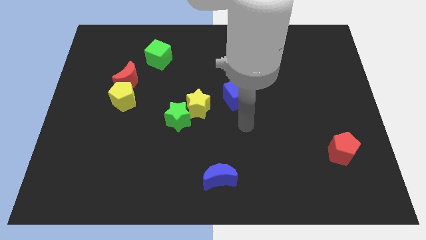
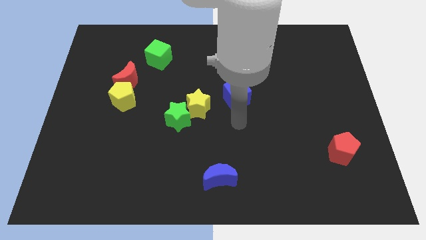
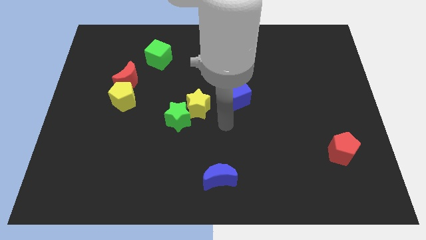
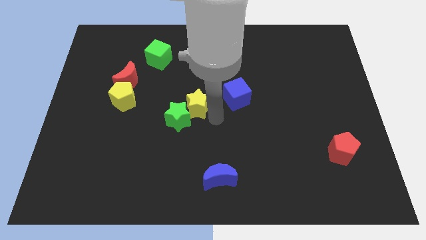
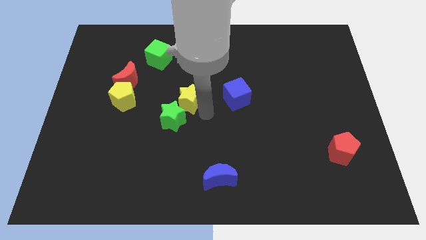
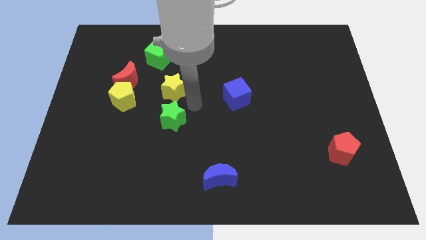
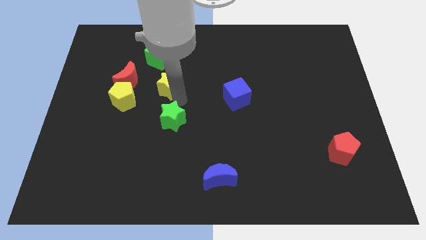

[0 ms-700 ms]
pull the green star apart from the yellow star

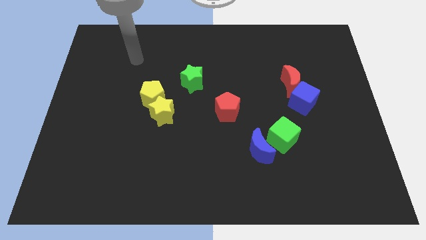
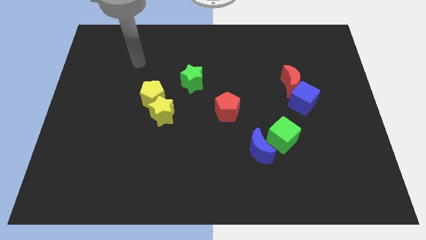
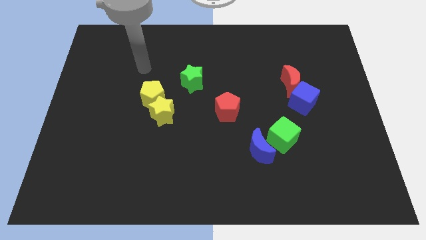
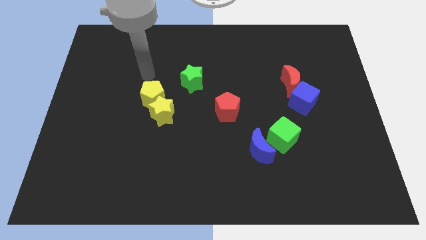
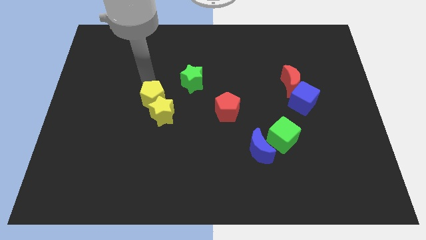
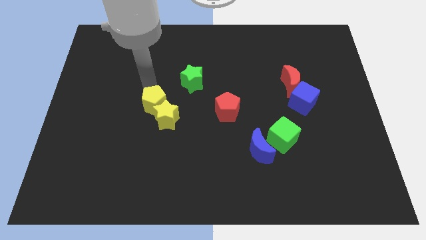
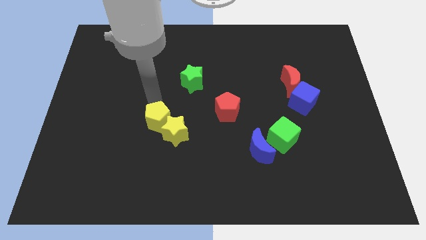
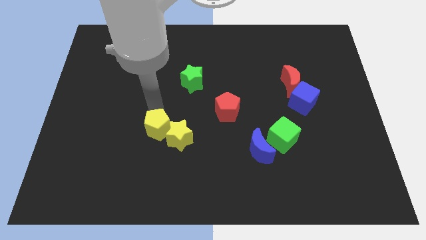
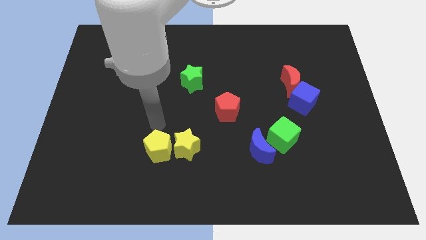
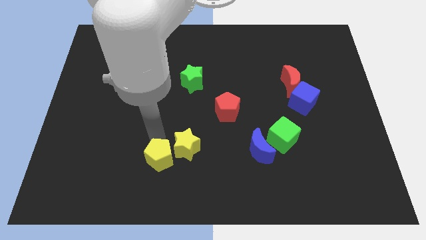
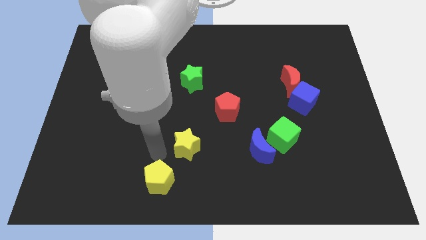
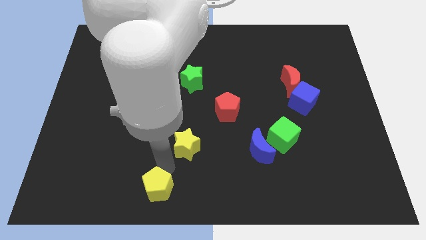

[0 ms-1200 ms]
pull the yellow star apart from the yellow pentagon

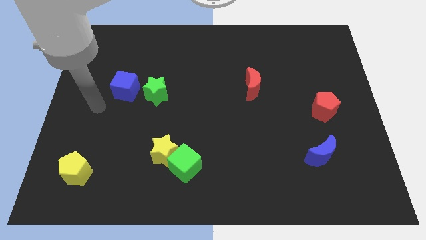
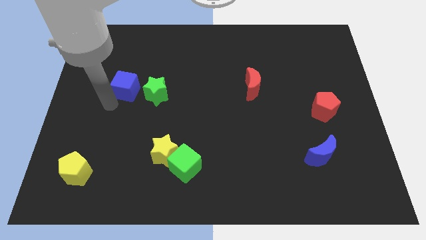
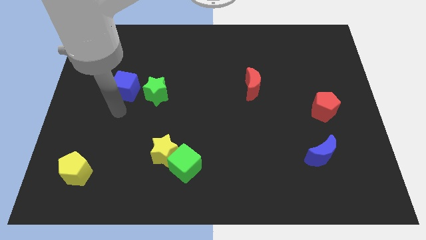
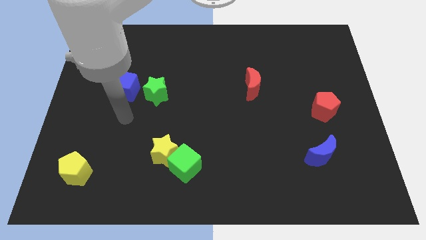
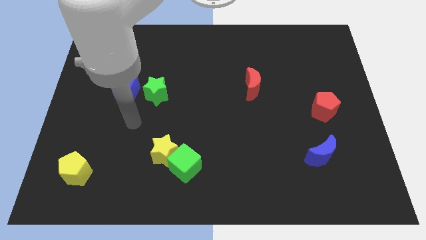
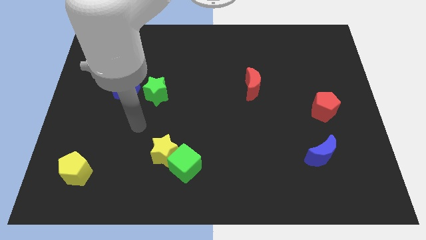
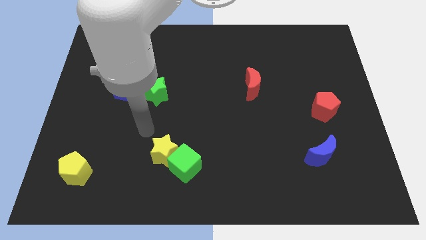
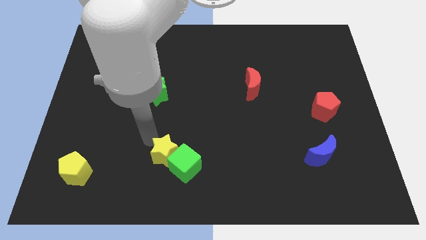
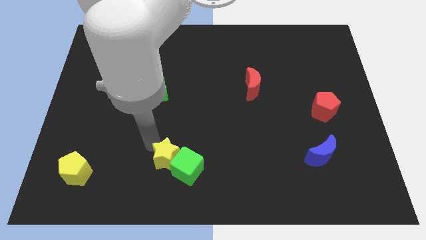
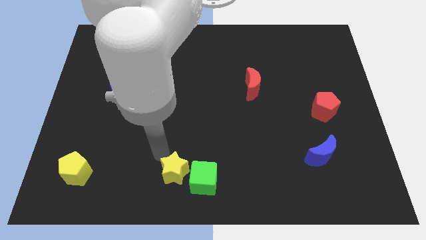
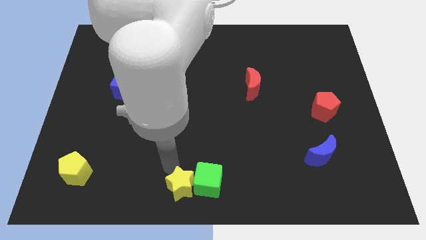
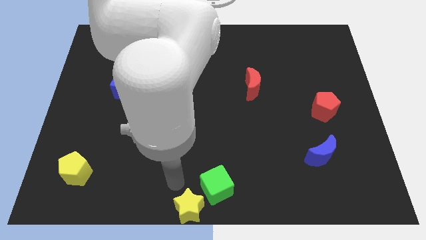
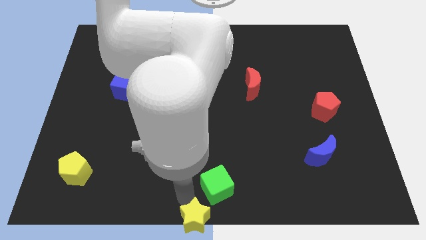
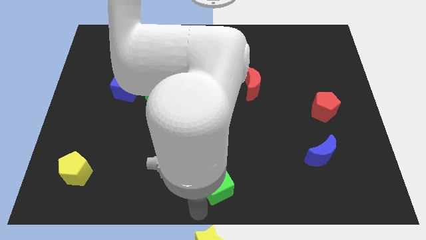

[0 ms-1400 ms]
pull the green cube apart from the yellow star

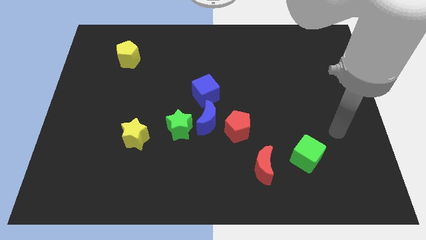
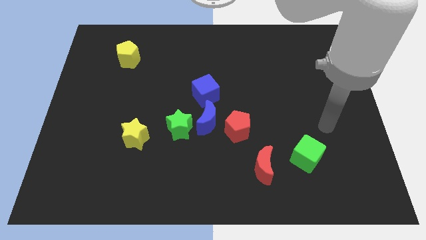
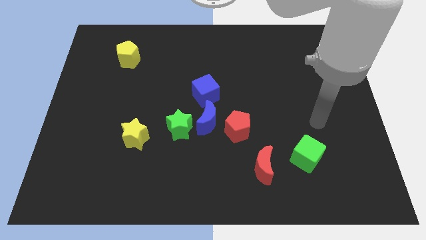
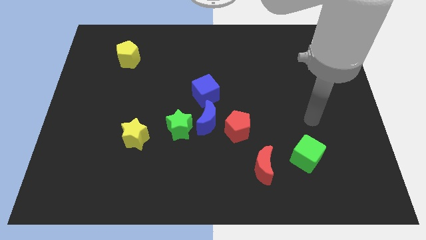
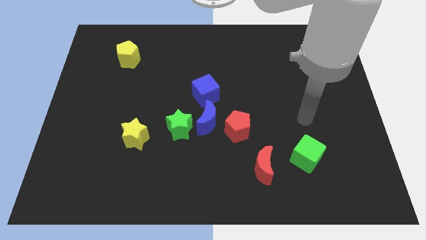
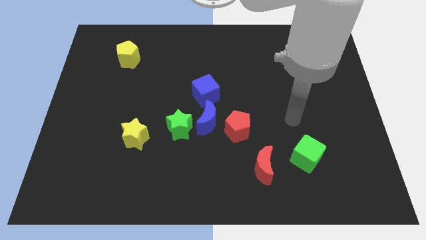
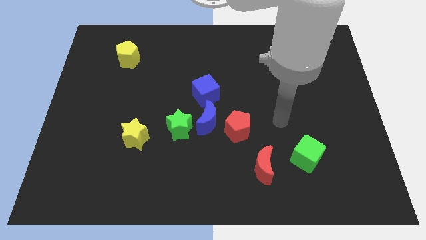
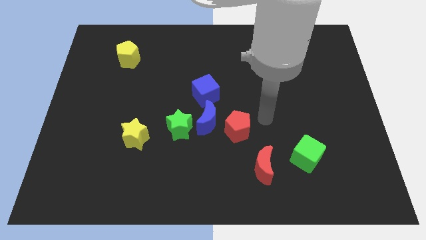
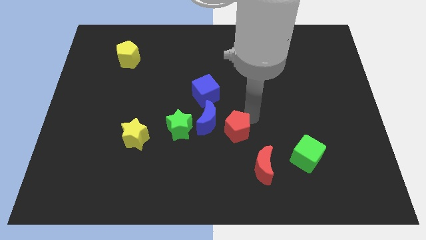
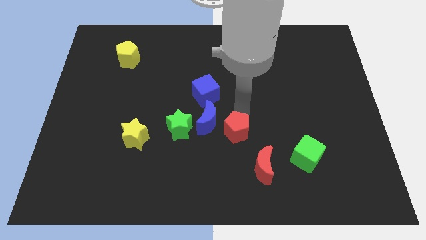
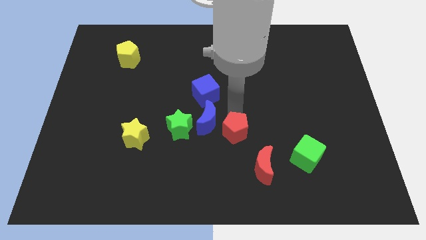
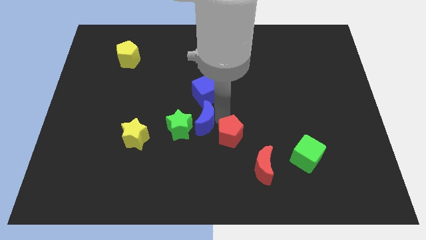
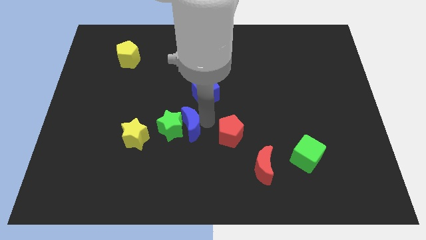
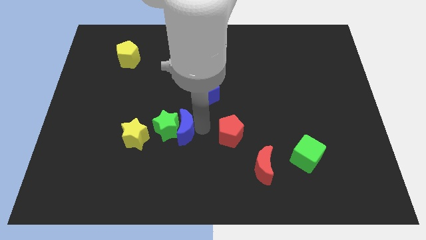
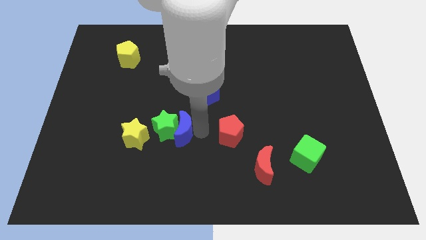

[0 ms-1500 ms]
pull the red pentagon apart from the blue moon

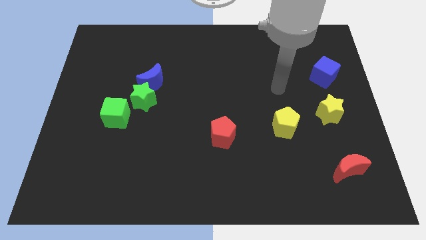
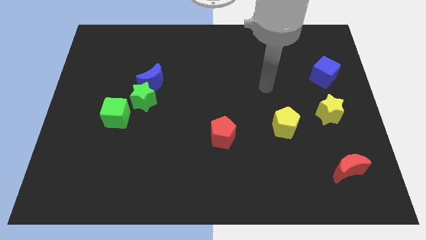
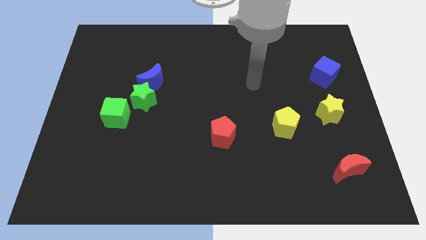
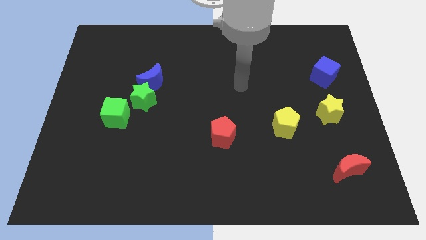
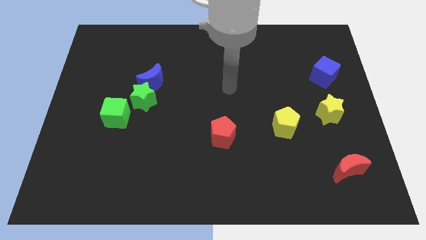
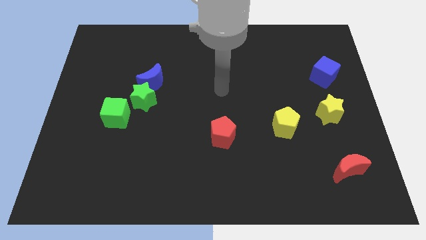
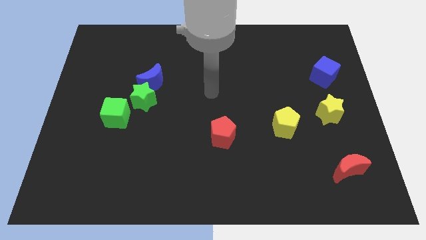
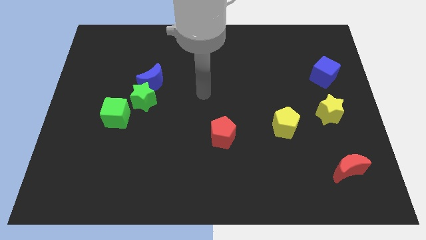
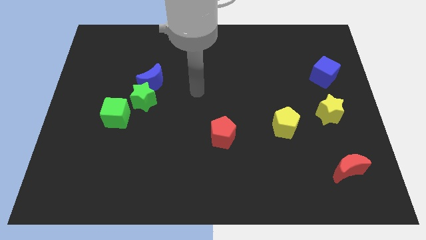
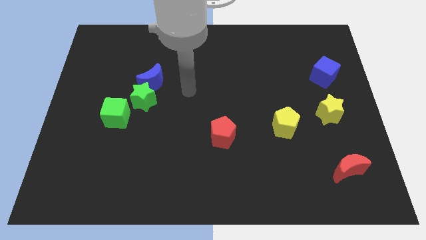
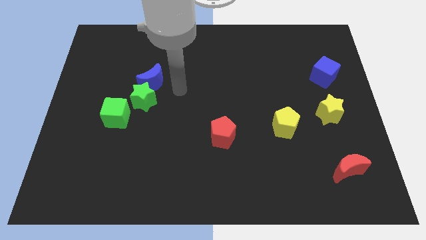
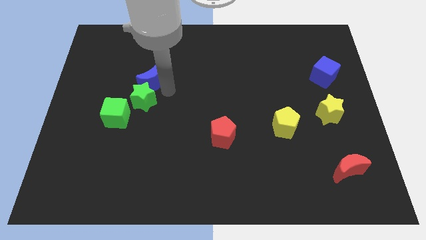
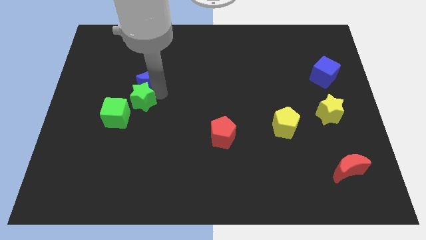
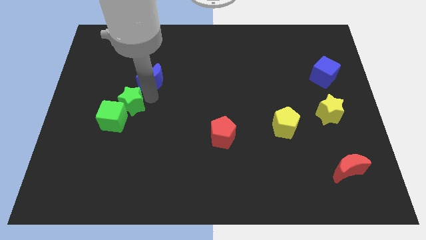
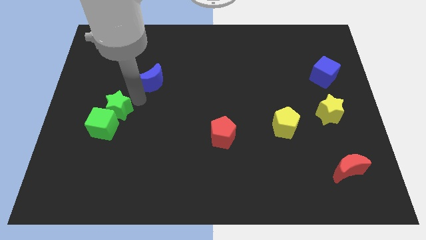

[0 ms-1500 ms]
move the blue moon away from the green star

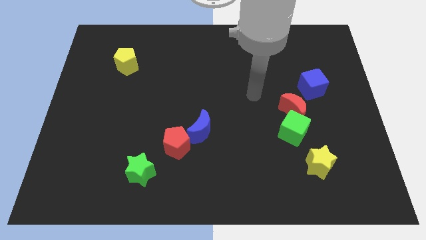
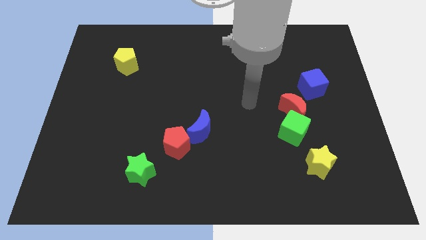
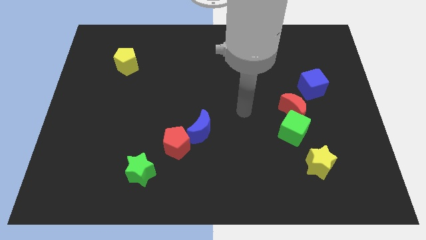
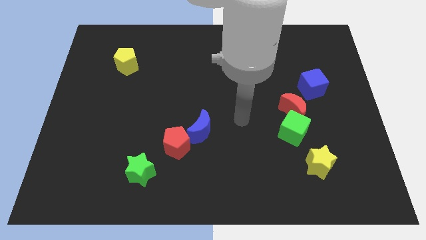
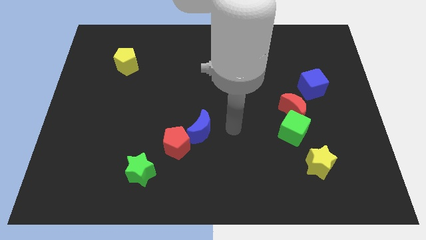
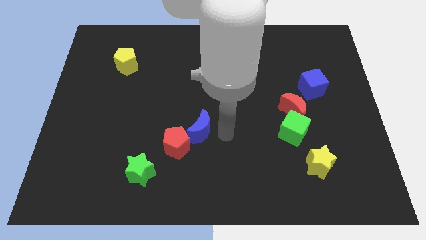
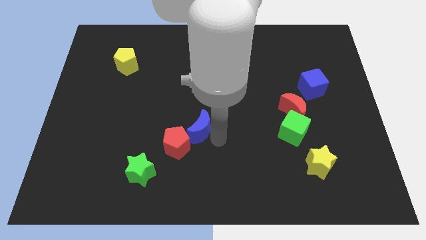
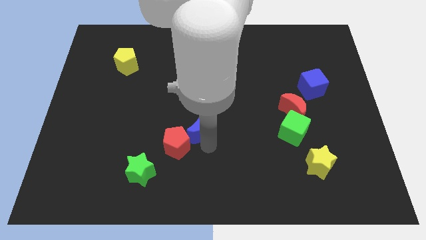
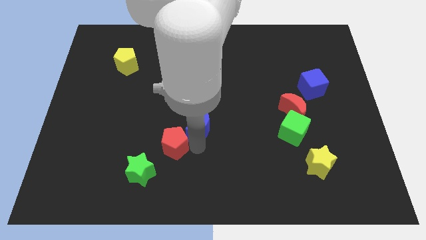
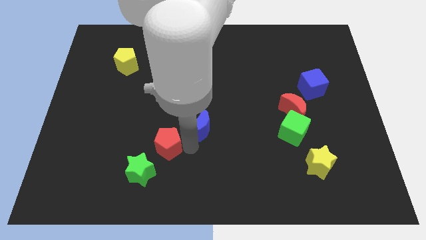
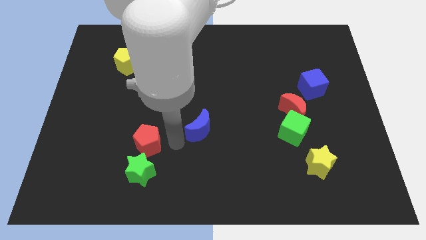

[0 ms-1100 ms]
separate the blue moon from the red pentagon

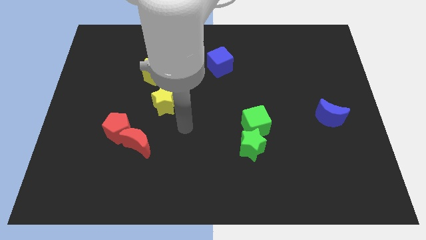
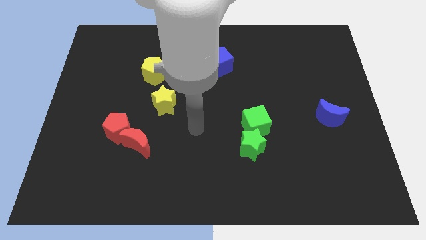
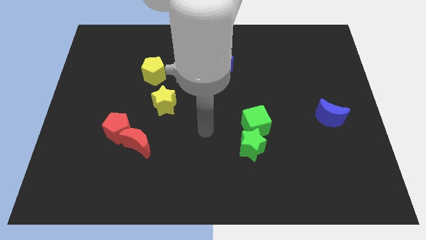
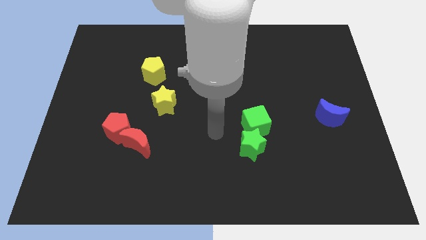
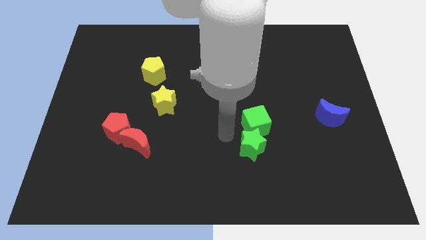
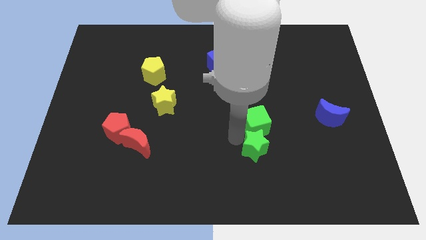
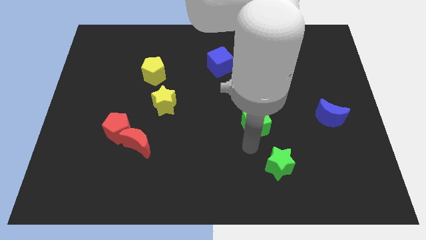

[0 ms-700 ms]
separate the green cube from the green star

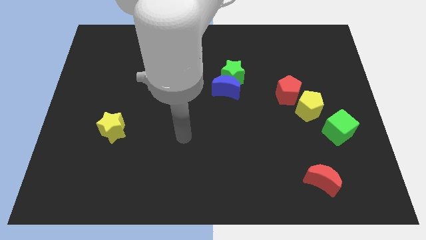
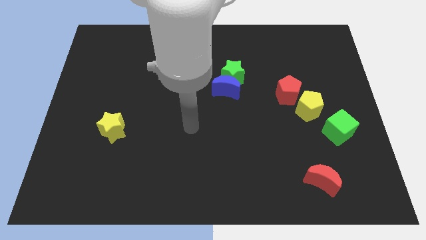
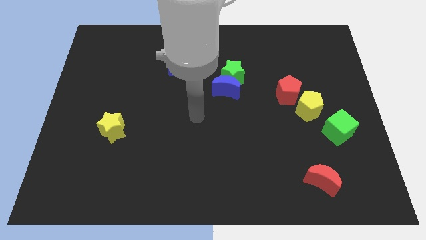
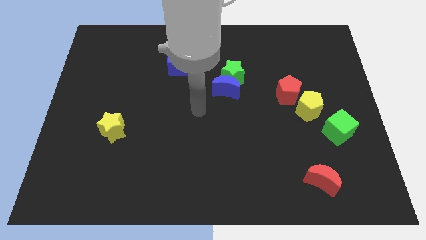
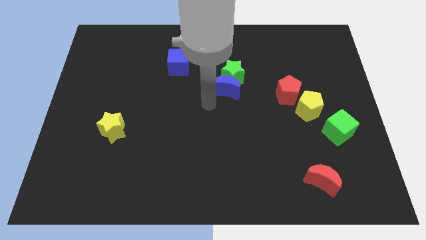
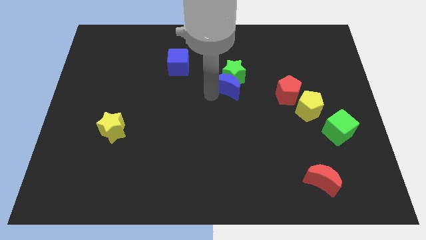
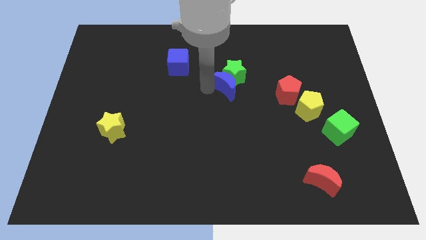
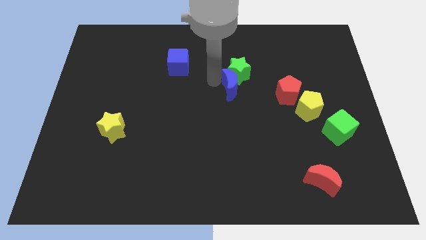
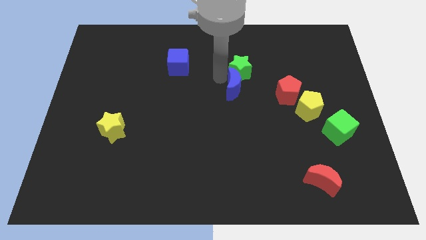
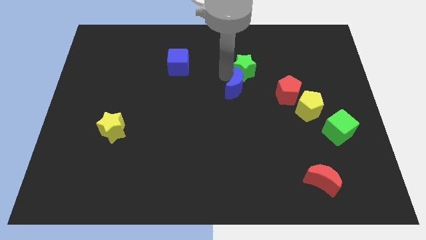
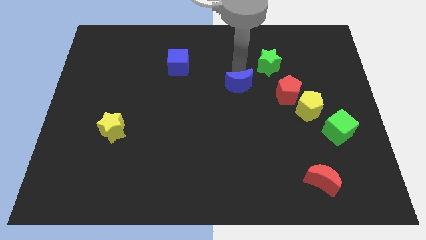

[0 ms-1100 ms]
separate the blue moon from the green star

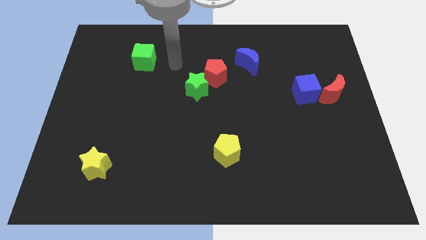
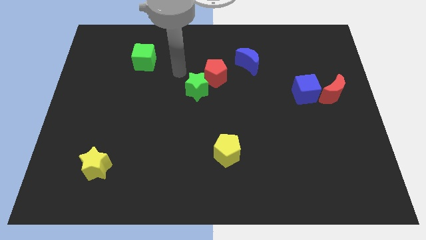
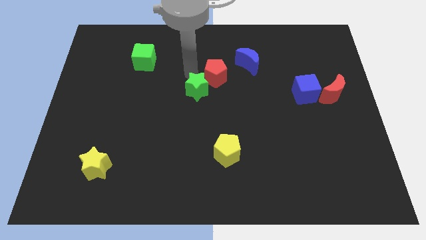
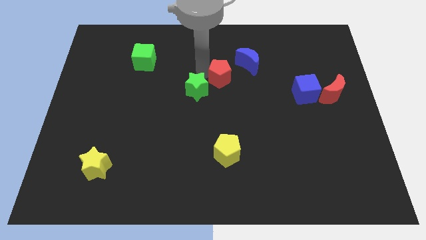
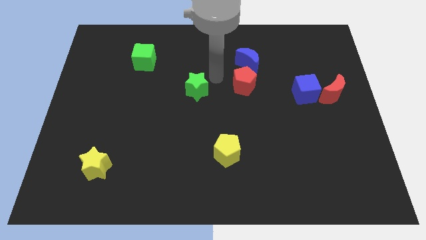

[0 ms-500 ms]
pull the green star apart from the red pentagon
